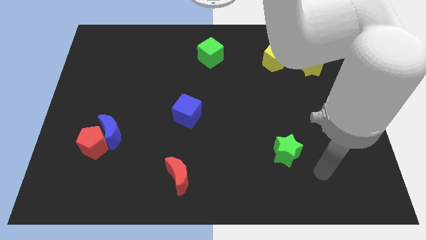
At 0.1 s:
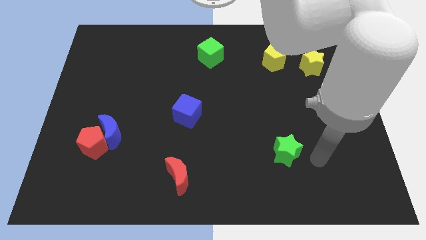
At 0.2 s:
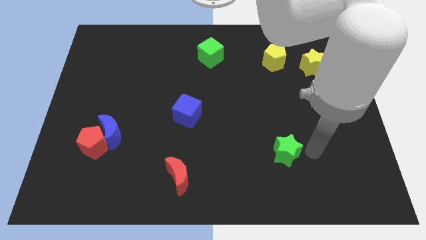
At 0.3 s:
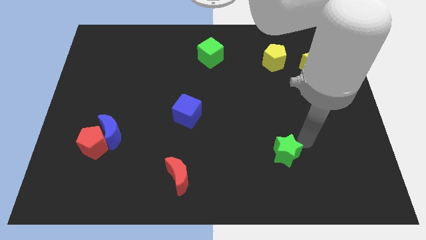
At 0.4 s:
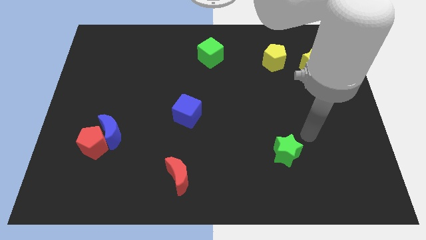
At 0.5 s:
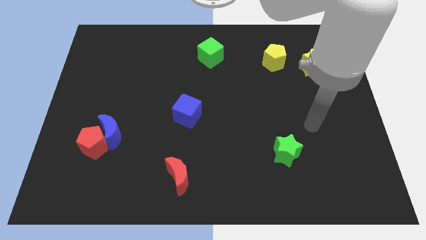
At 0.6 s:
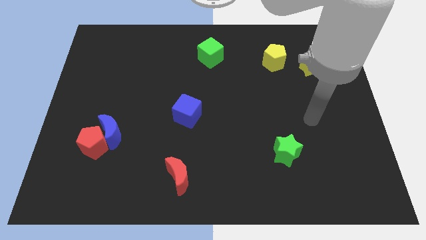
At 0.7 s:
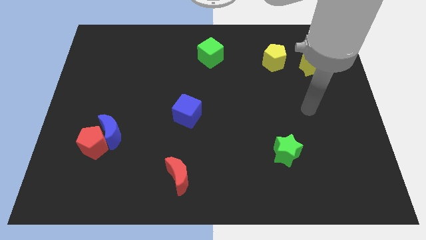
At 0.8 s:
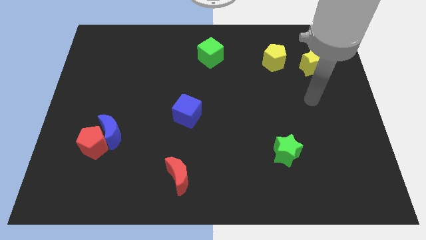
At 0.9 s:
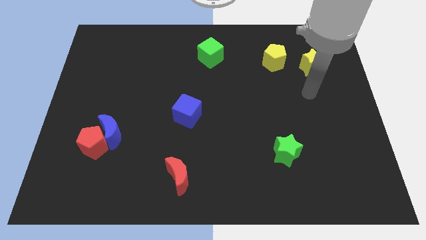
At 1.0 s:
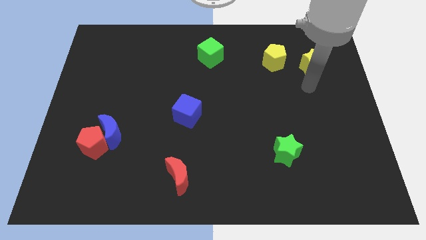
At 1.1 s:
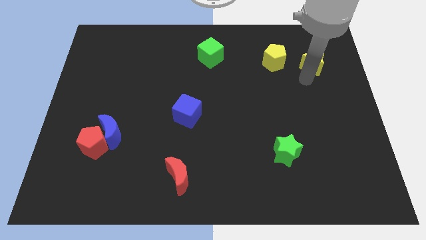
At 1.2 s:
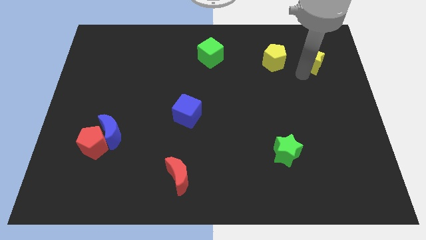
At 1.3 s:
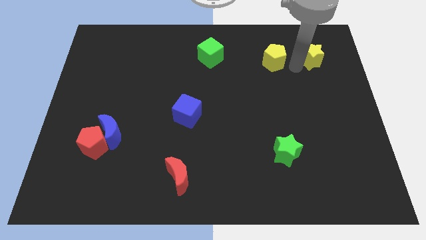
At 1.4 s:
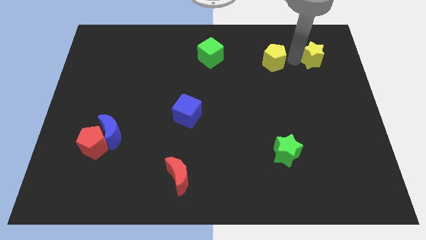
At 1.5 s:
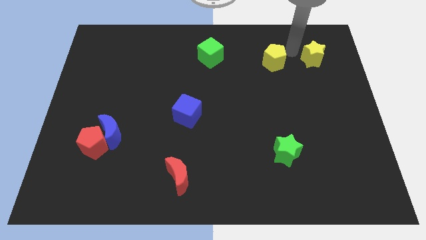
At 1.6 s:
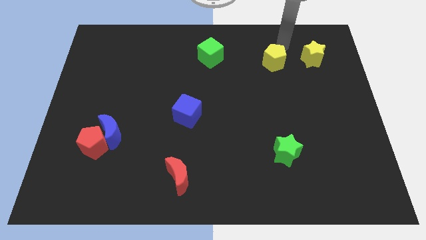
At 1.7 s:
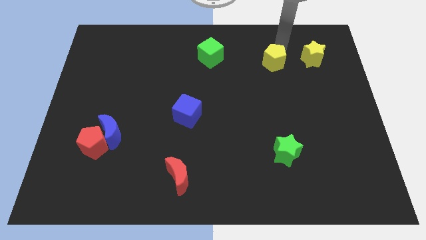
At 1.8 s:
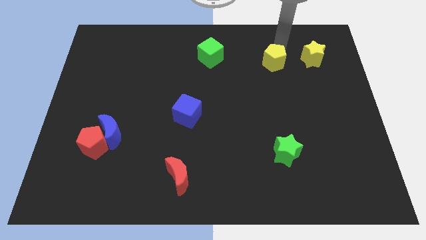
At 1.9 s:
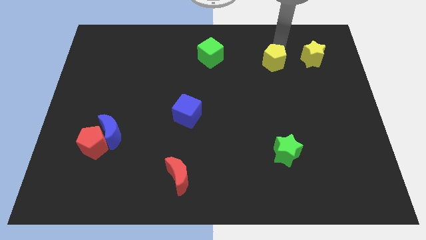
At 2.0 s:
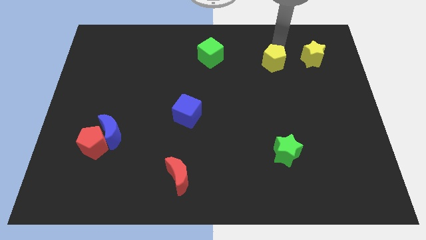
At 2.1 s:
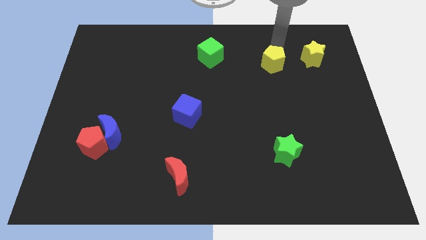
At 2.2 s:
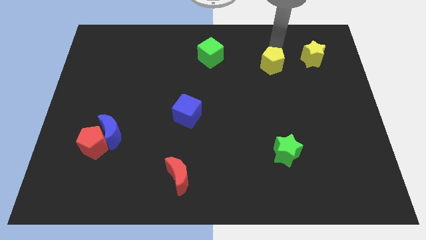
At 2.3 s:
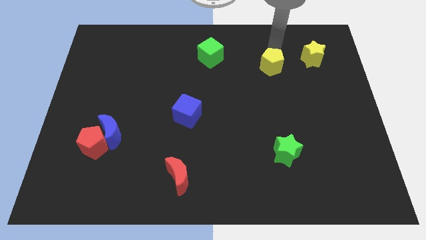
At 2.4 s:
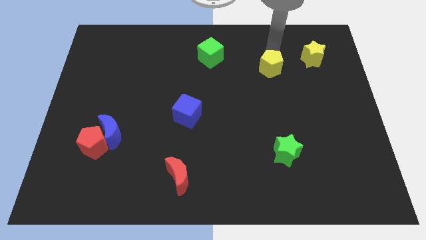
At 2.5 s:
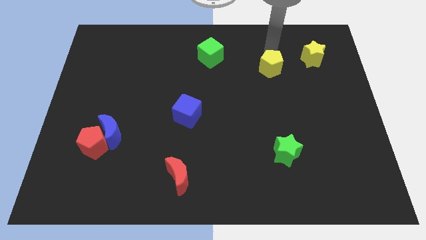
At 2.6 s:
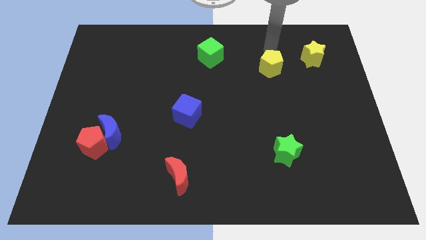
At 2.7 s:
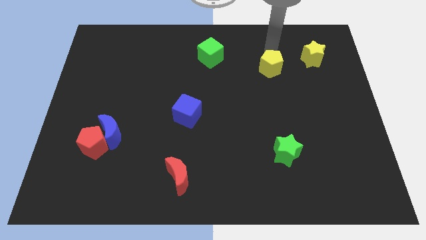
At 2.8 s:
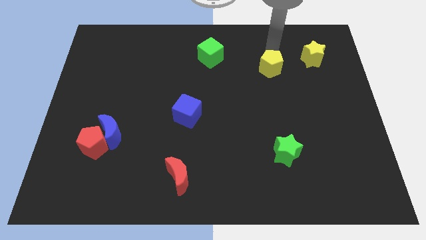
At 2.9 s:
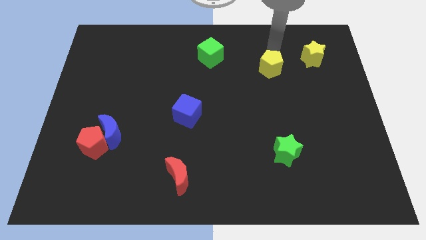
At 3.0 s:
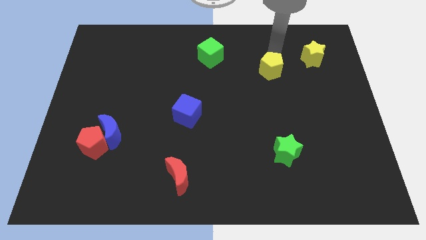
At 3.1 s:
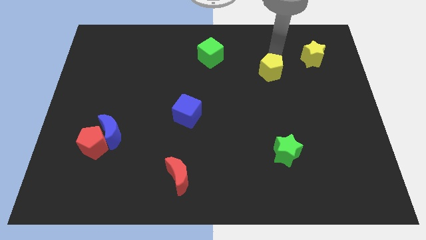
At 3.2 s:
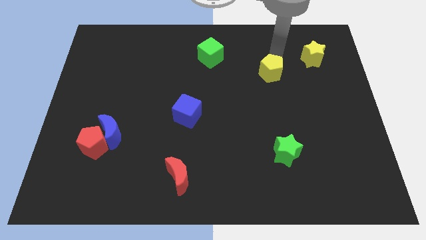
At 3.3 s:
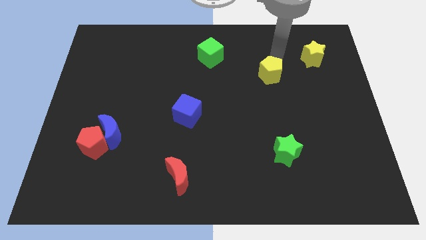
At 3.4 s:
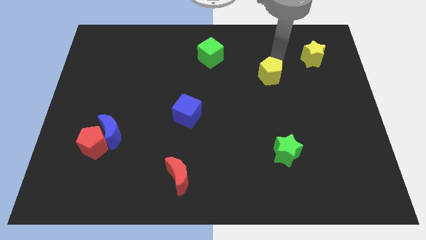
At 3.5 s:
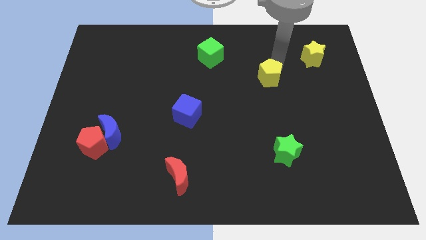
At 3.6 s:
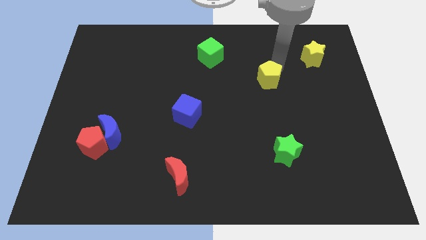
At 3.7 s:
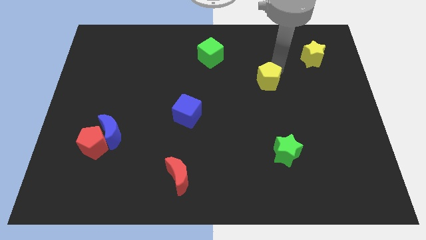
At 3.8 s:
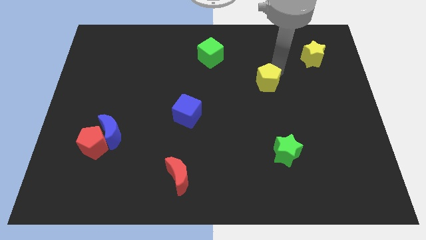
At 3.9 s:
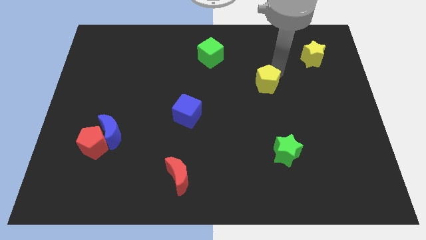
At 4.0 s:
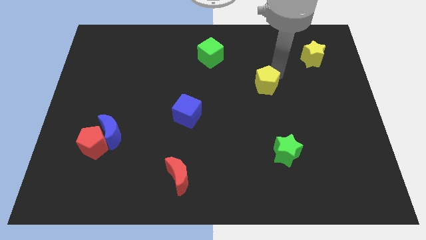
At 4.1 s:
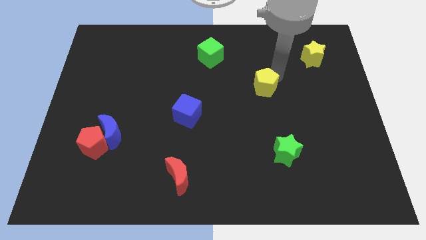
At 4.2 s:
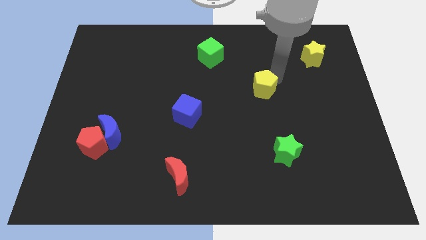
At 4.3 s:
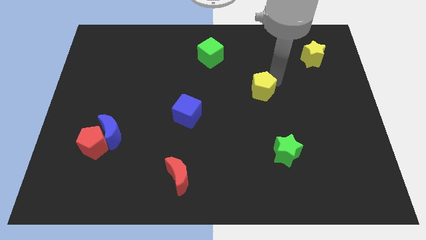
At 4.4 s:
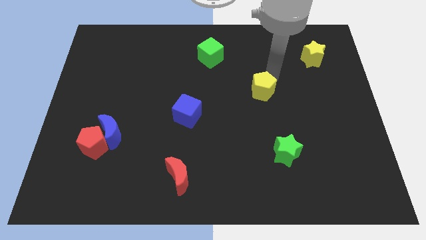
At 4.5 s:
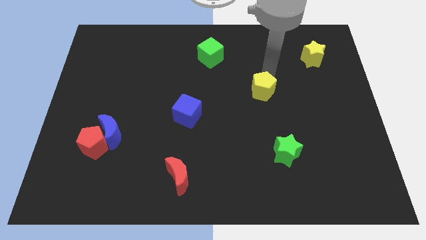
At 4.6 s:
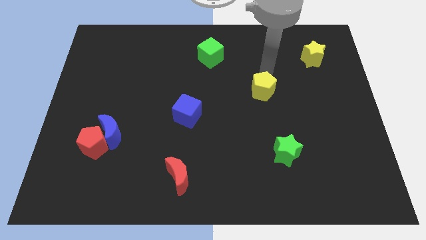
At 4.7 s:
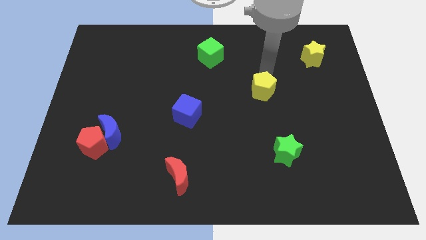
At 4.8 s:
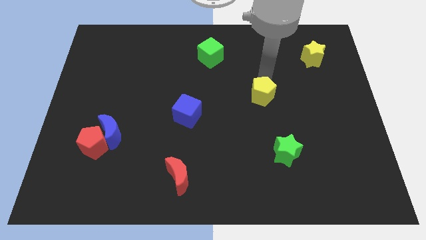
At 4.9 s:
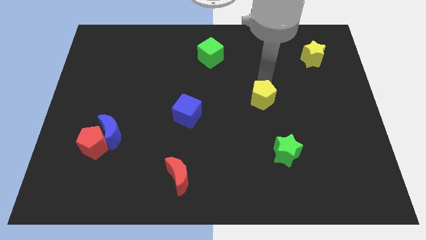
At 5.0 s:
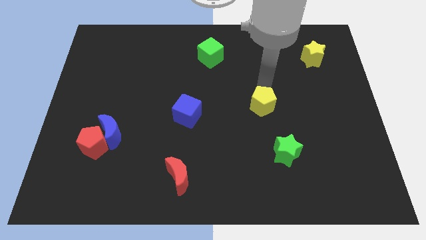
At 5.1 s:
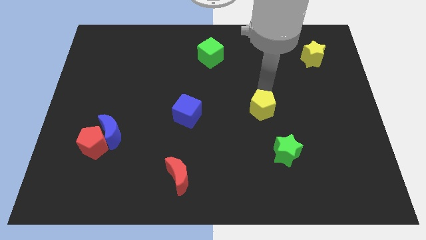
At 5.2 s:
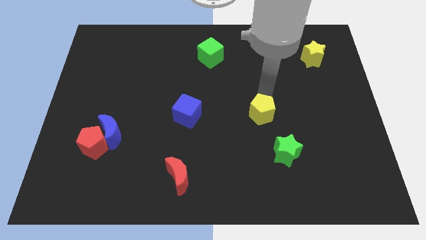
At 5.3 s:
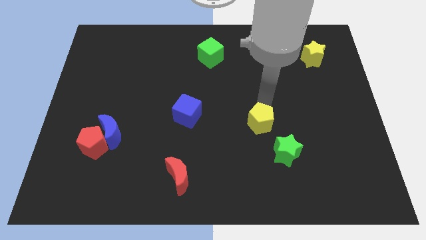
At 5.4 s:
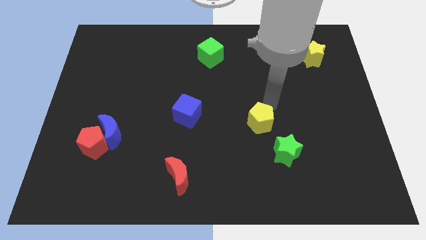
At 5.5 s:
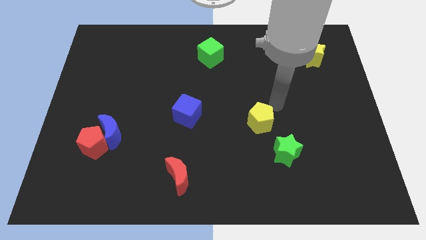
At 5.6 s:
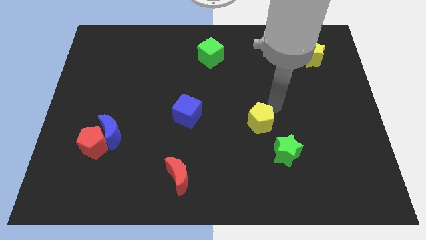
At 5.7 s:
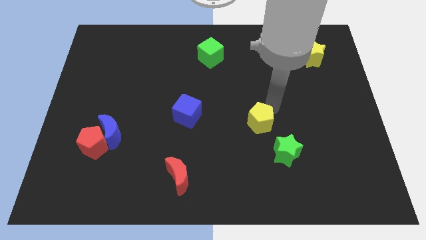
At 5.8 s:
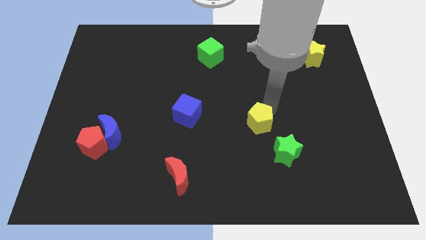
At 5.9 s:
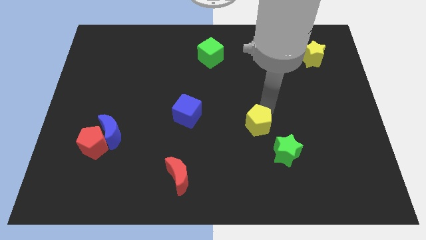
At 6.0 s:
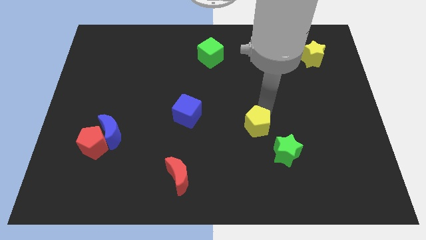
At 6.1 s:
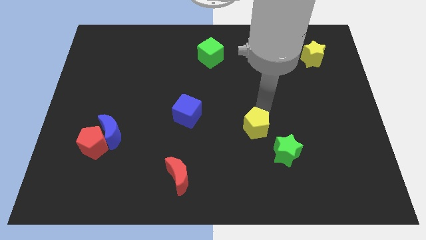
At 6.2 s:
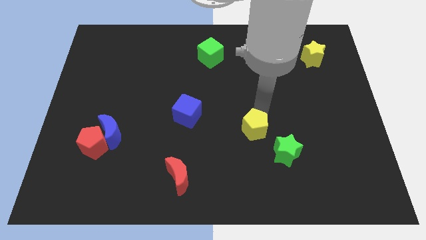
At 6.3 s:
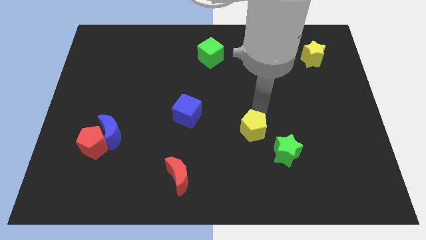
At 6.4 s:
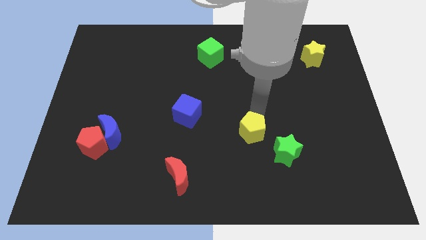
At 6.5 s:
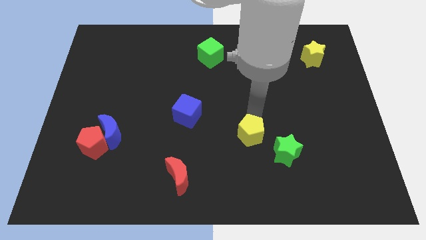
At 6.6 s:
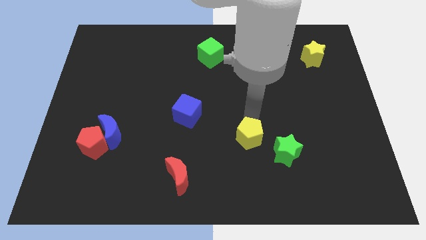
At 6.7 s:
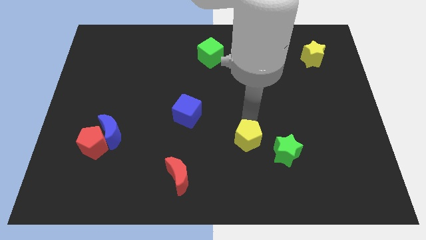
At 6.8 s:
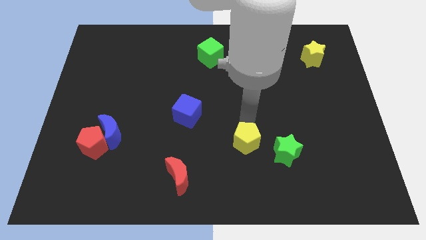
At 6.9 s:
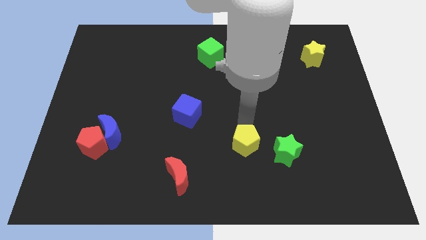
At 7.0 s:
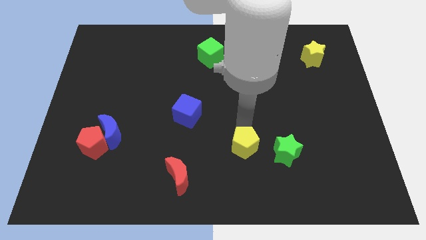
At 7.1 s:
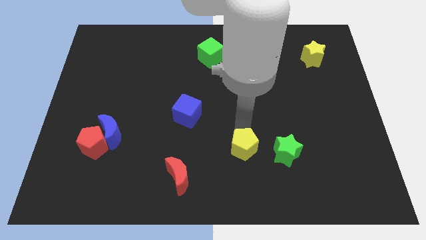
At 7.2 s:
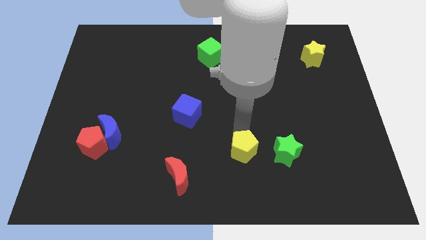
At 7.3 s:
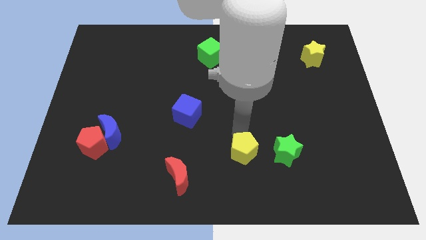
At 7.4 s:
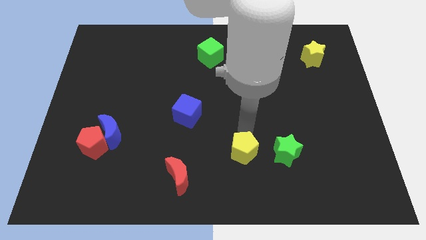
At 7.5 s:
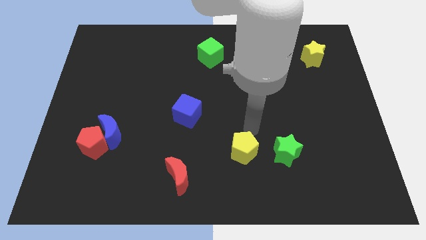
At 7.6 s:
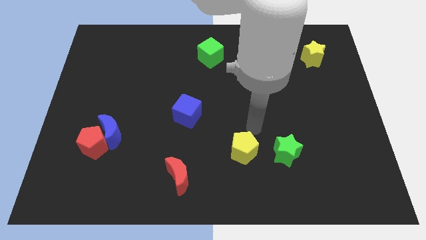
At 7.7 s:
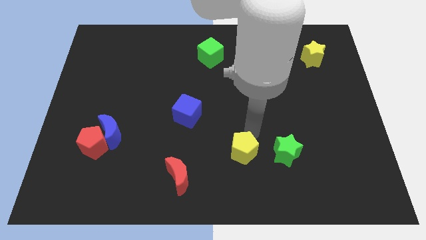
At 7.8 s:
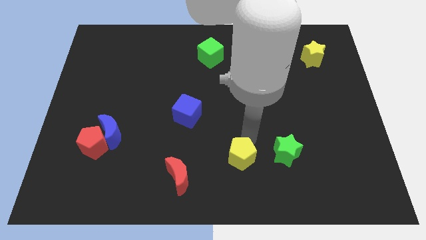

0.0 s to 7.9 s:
put the yellow pentagon just right of the red moon
